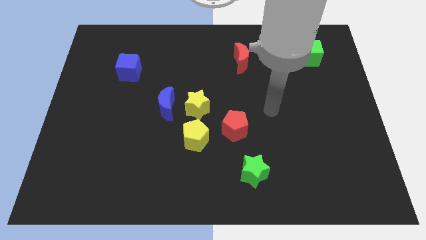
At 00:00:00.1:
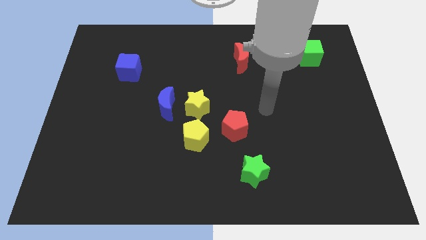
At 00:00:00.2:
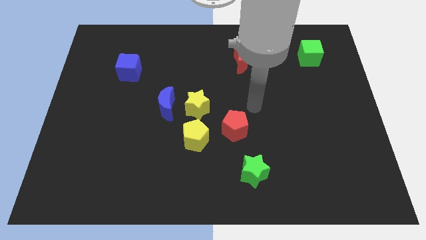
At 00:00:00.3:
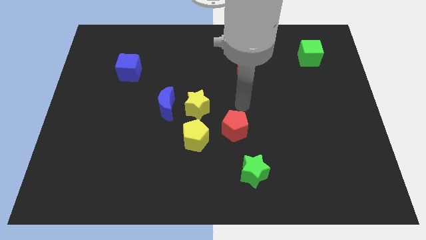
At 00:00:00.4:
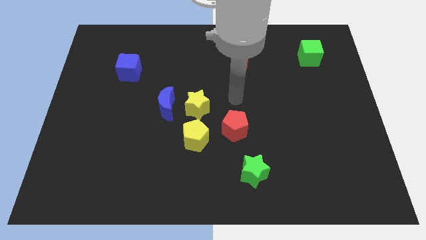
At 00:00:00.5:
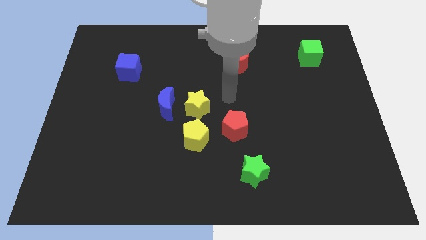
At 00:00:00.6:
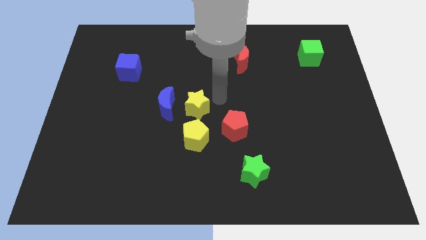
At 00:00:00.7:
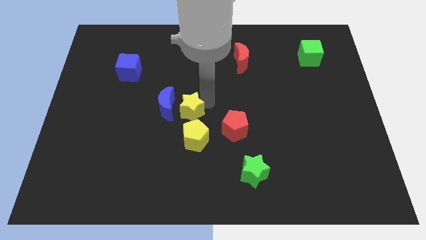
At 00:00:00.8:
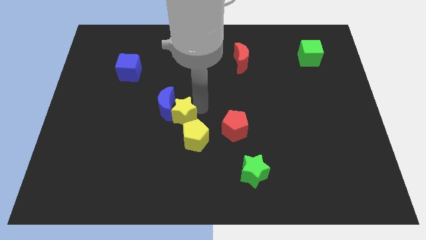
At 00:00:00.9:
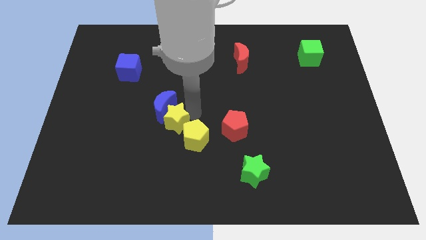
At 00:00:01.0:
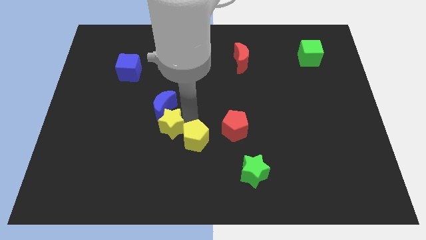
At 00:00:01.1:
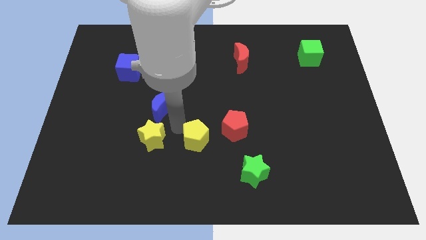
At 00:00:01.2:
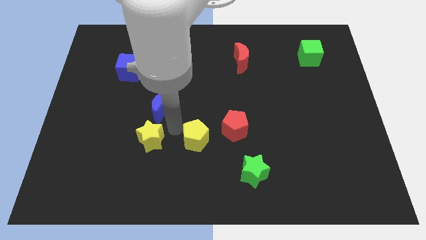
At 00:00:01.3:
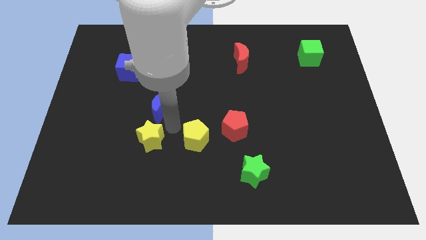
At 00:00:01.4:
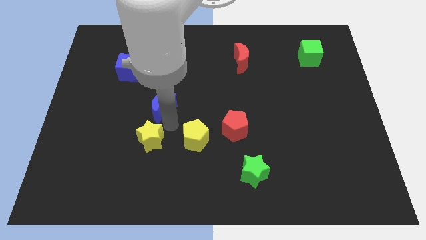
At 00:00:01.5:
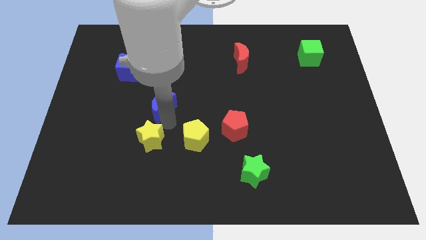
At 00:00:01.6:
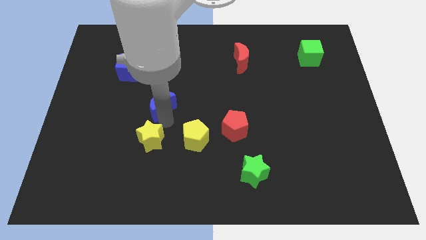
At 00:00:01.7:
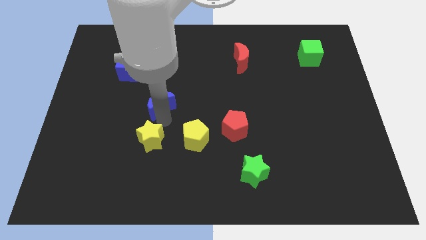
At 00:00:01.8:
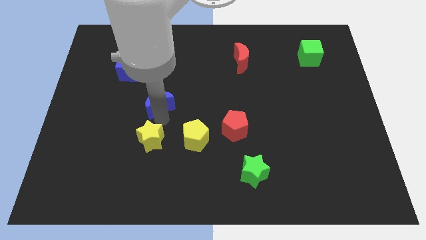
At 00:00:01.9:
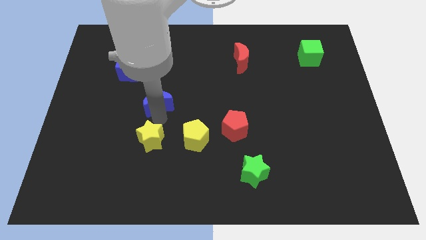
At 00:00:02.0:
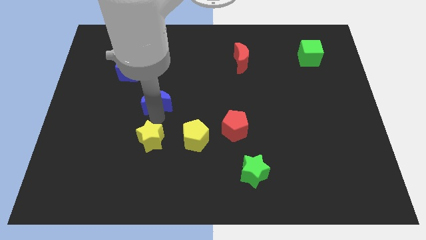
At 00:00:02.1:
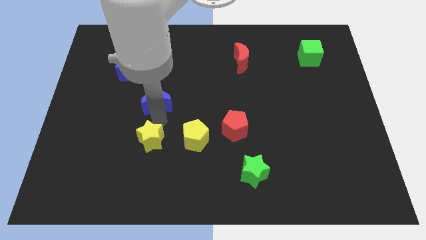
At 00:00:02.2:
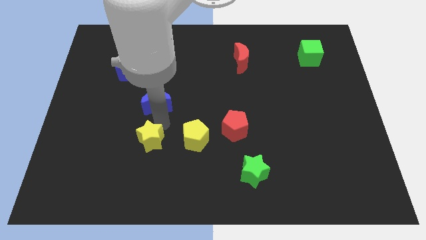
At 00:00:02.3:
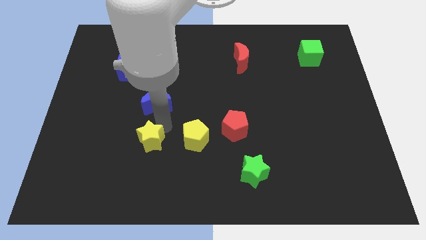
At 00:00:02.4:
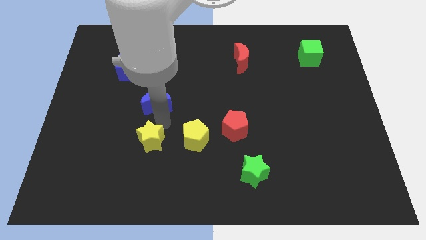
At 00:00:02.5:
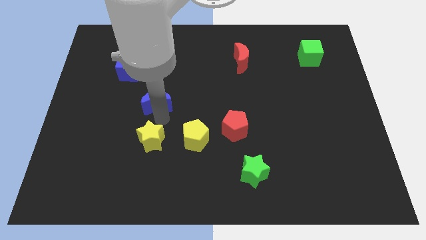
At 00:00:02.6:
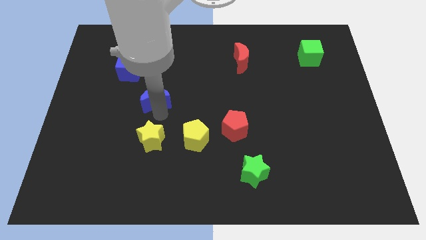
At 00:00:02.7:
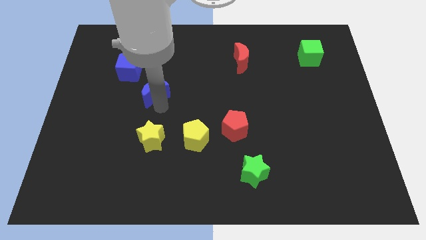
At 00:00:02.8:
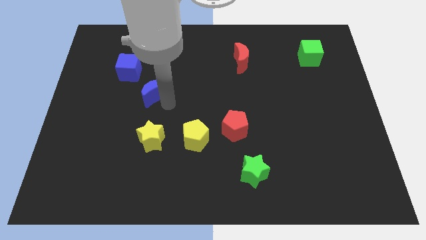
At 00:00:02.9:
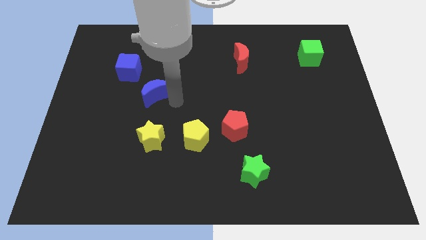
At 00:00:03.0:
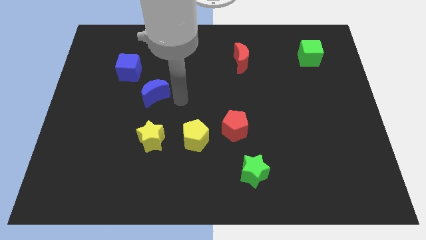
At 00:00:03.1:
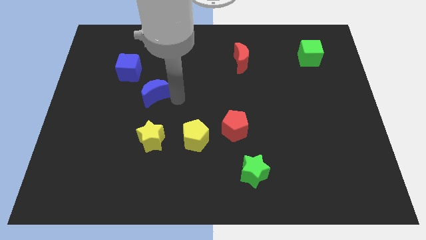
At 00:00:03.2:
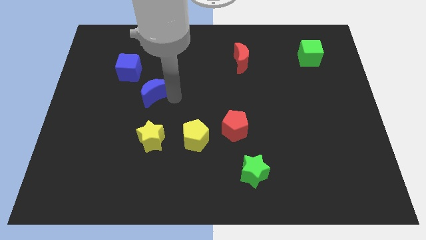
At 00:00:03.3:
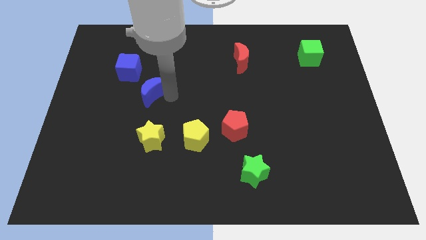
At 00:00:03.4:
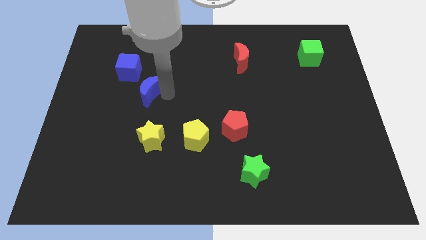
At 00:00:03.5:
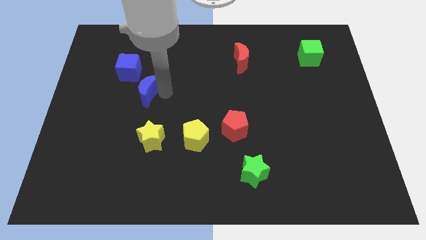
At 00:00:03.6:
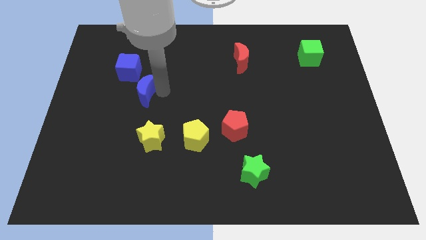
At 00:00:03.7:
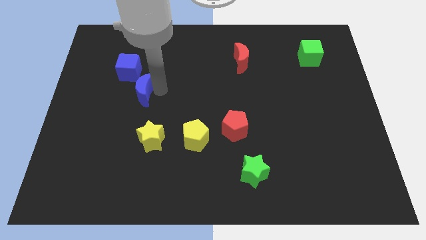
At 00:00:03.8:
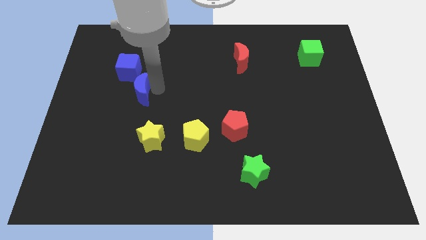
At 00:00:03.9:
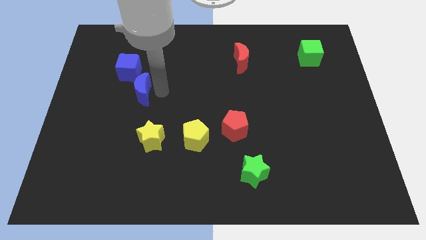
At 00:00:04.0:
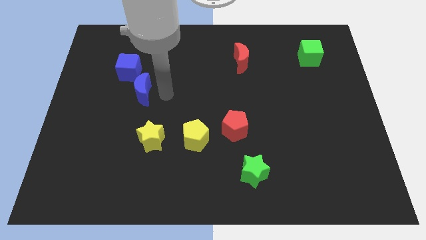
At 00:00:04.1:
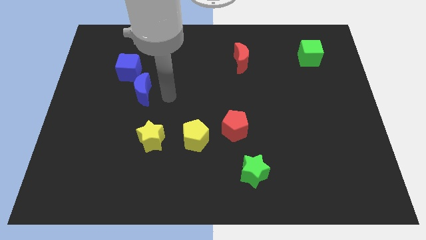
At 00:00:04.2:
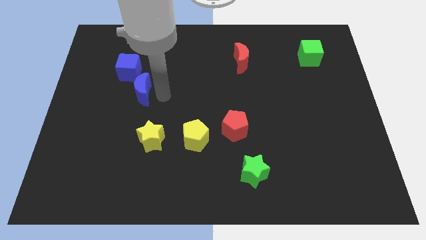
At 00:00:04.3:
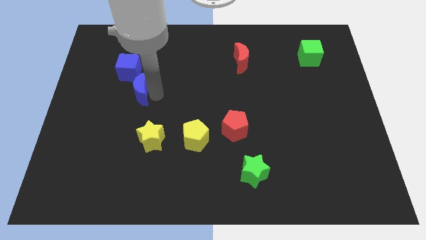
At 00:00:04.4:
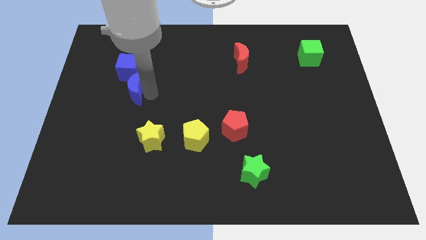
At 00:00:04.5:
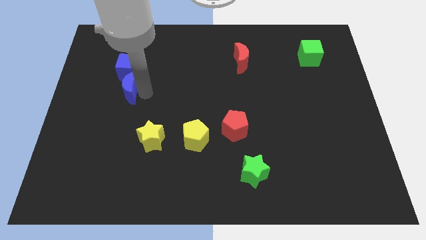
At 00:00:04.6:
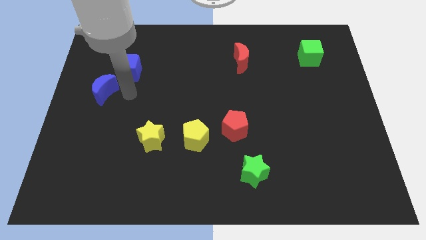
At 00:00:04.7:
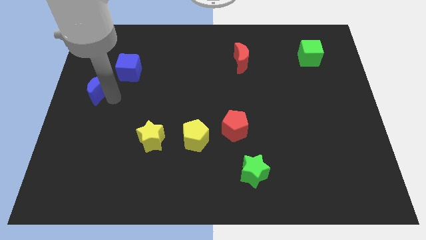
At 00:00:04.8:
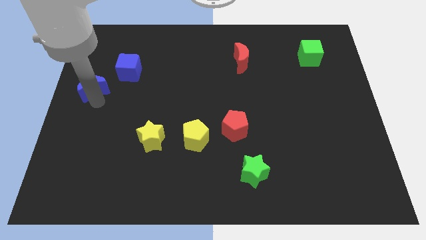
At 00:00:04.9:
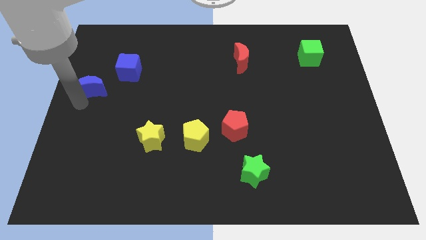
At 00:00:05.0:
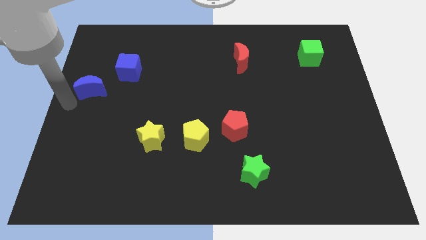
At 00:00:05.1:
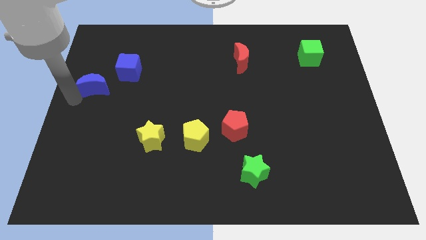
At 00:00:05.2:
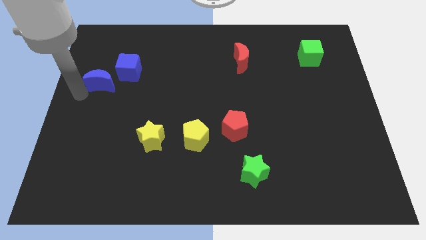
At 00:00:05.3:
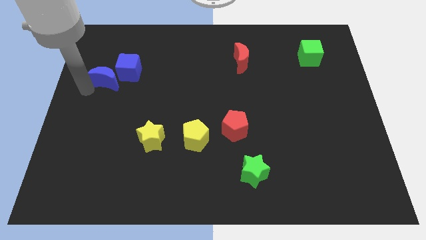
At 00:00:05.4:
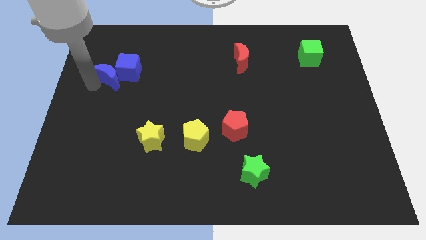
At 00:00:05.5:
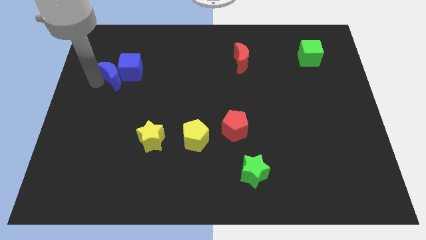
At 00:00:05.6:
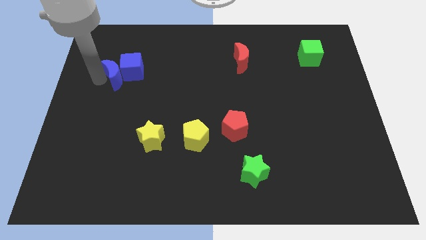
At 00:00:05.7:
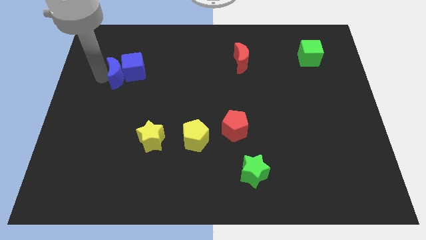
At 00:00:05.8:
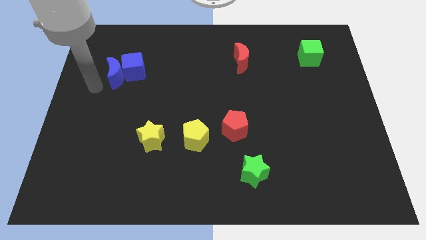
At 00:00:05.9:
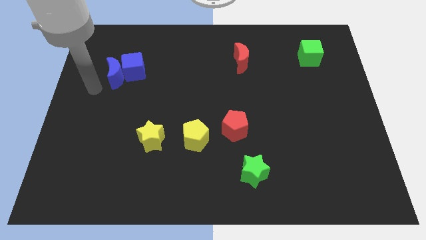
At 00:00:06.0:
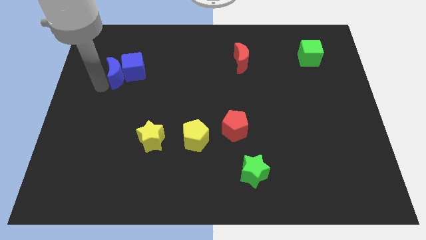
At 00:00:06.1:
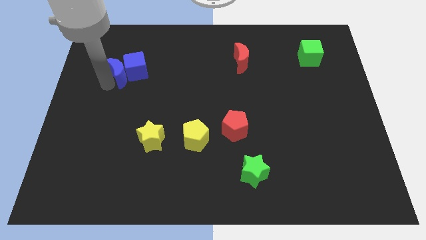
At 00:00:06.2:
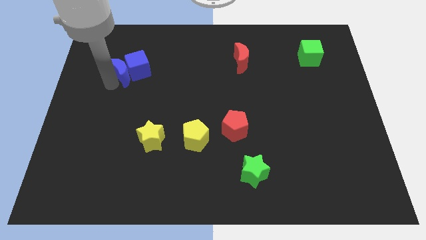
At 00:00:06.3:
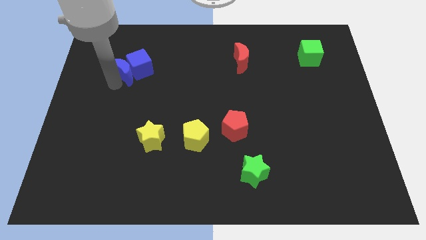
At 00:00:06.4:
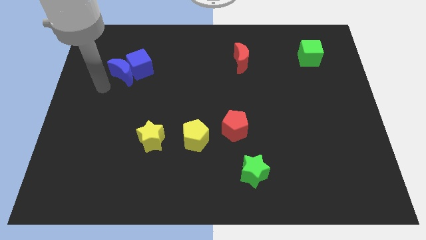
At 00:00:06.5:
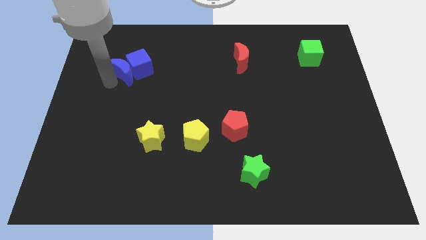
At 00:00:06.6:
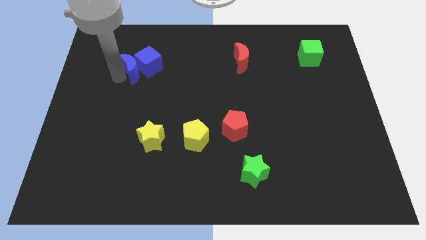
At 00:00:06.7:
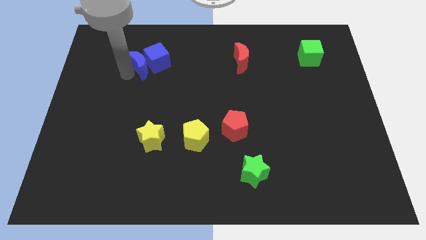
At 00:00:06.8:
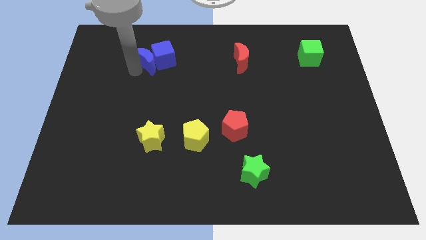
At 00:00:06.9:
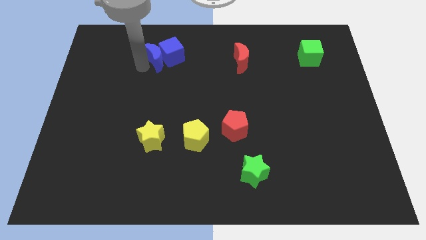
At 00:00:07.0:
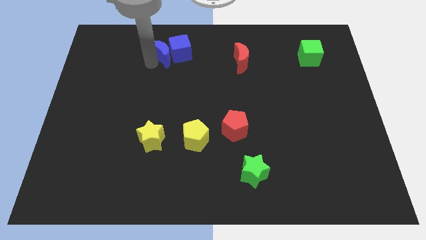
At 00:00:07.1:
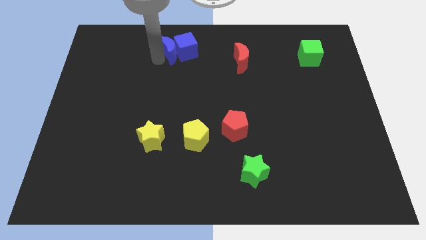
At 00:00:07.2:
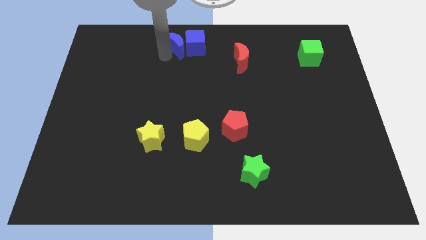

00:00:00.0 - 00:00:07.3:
slide the blue moon to the top
